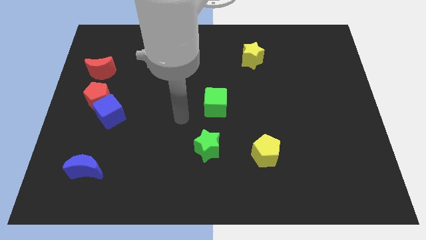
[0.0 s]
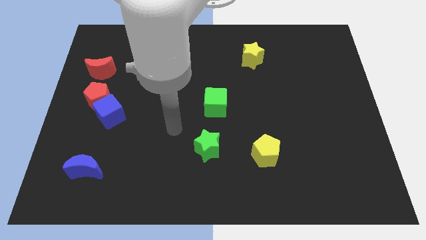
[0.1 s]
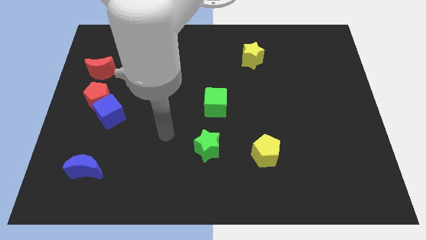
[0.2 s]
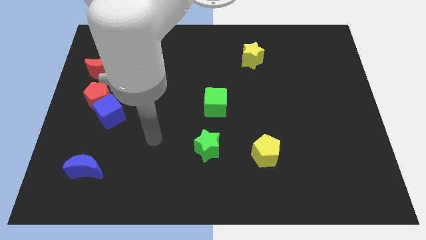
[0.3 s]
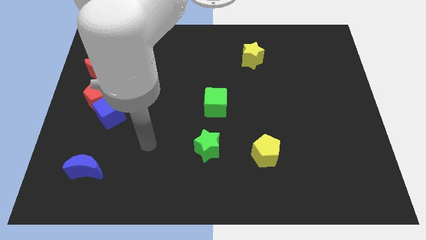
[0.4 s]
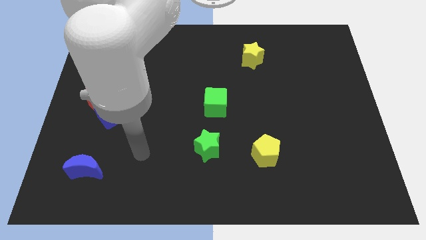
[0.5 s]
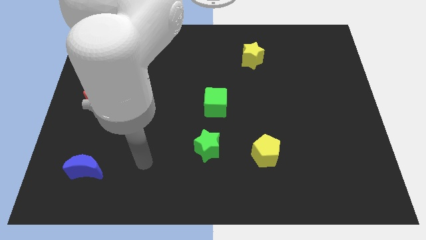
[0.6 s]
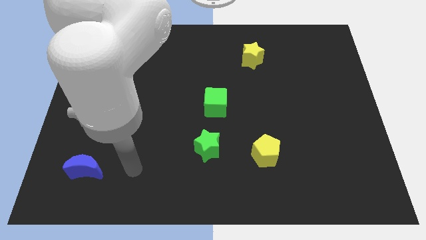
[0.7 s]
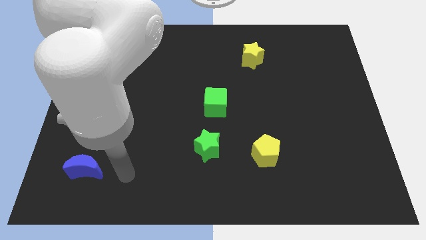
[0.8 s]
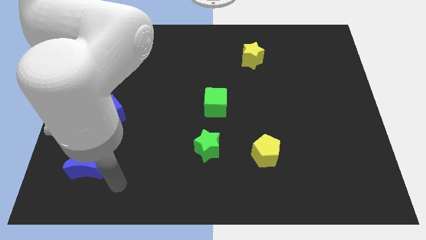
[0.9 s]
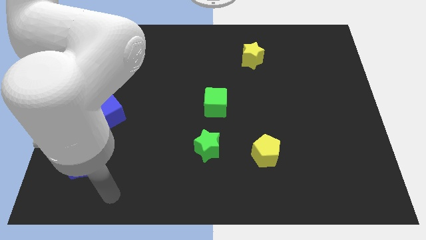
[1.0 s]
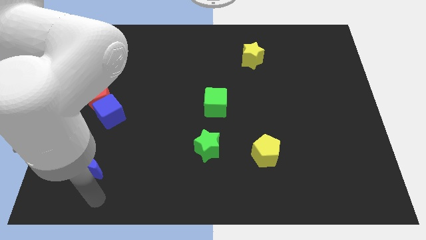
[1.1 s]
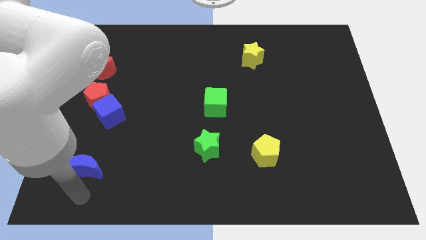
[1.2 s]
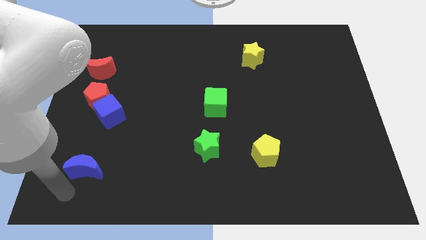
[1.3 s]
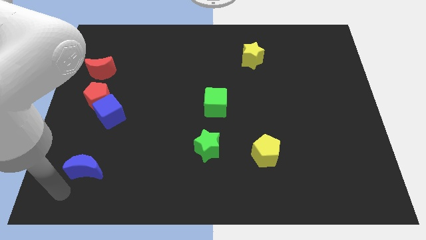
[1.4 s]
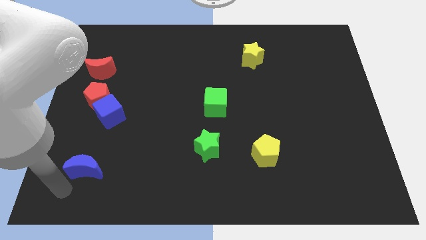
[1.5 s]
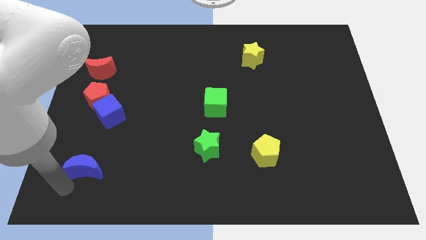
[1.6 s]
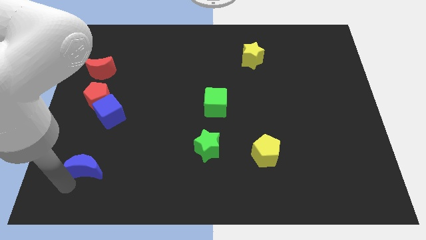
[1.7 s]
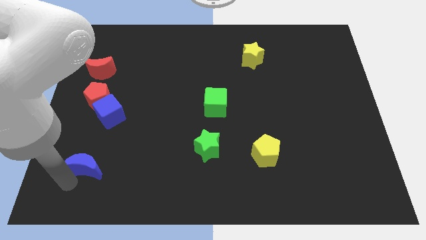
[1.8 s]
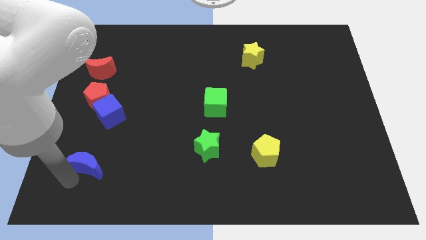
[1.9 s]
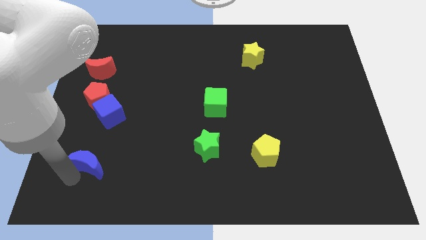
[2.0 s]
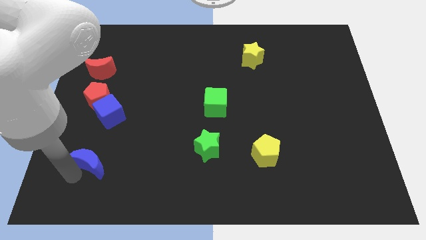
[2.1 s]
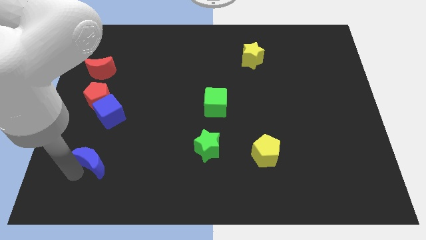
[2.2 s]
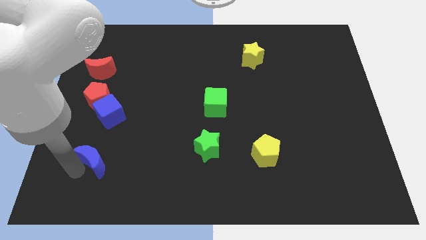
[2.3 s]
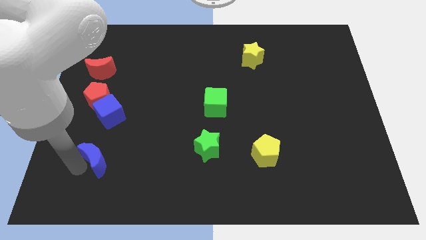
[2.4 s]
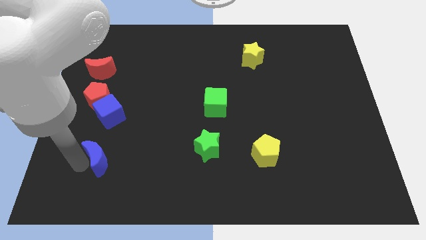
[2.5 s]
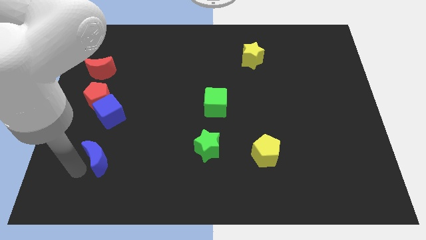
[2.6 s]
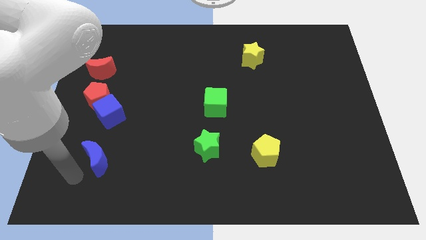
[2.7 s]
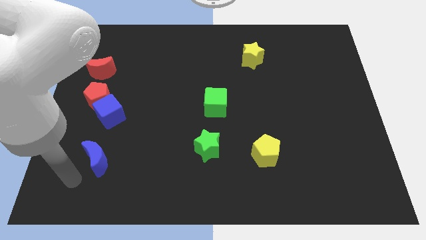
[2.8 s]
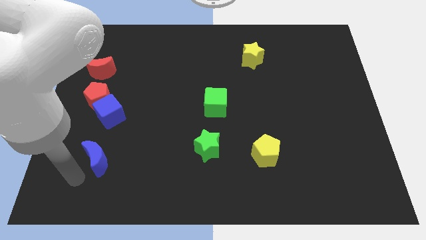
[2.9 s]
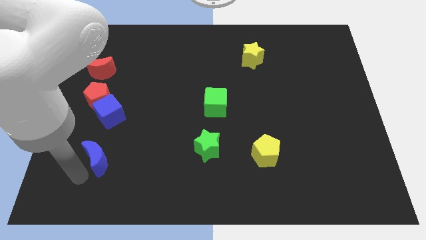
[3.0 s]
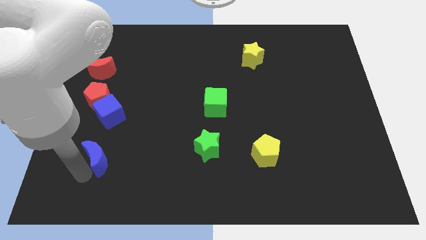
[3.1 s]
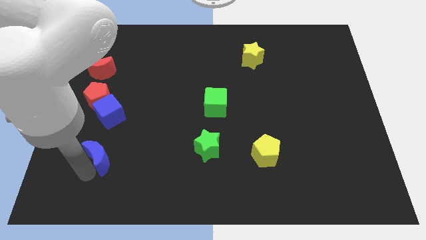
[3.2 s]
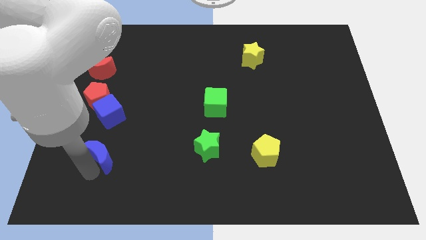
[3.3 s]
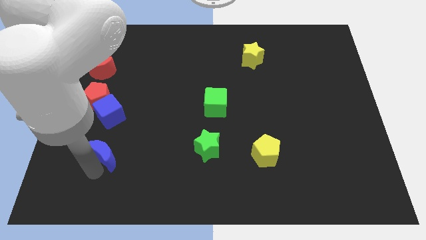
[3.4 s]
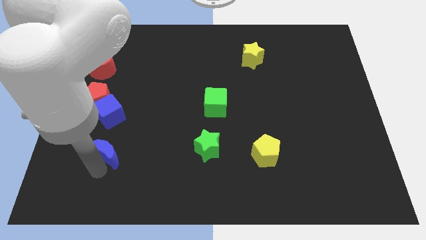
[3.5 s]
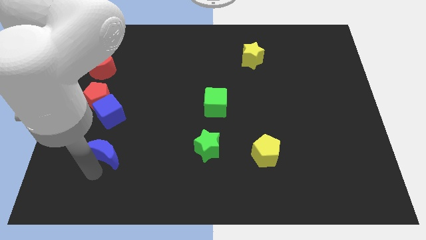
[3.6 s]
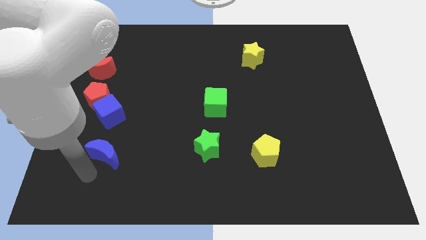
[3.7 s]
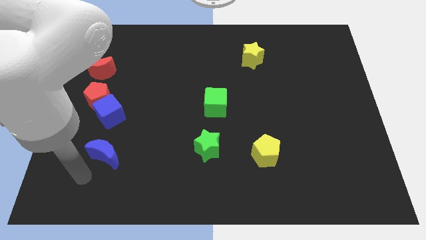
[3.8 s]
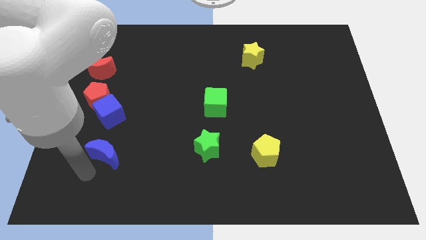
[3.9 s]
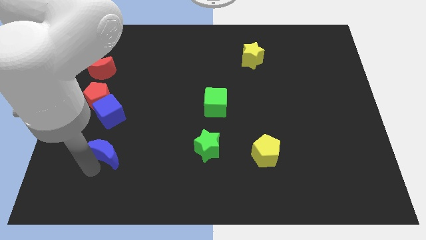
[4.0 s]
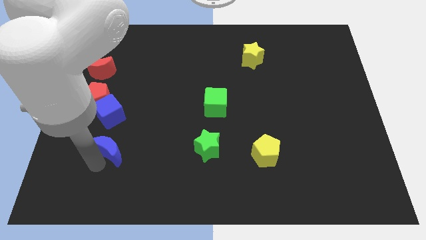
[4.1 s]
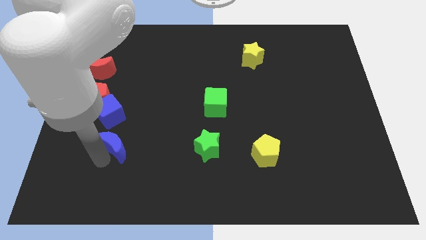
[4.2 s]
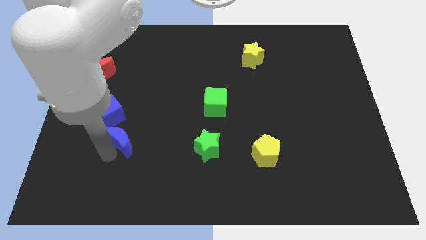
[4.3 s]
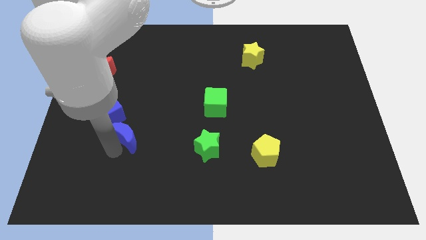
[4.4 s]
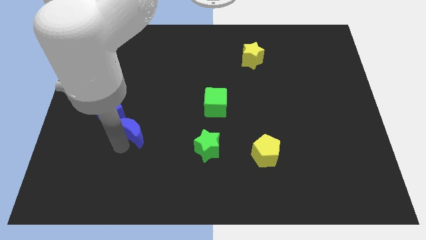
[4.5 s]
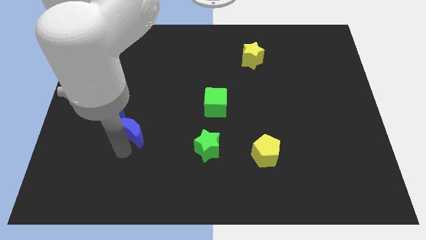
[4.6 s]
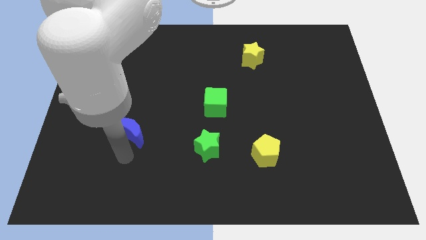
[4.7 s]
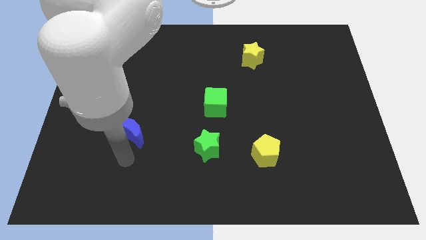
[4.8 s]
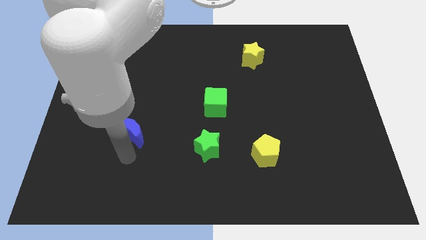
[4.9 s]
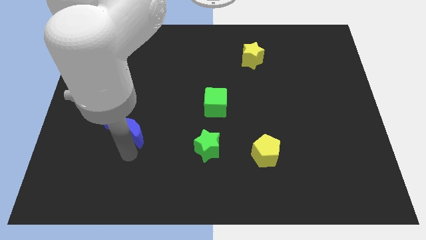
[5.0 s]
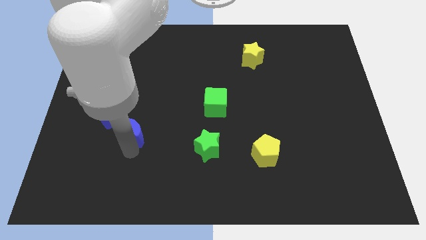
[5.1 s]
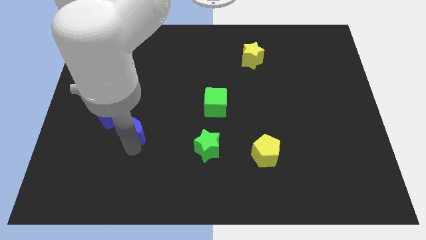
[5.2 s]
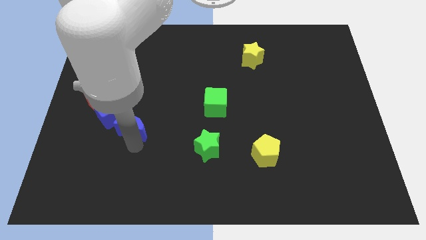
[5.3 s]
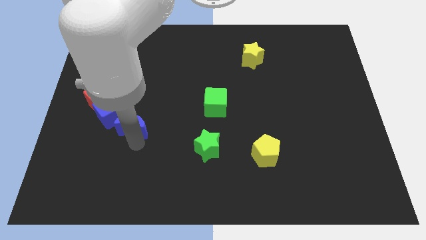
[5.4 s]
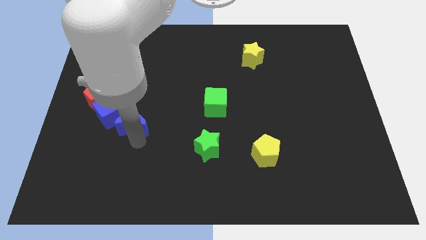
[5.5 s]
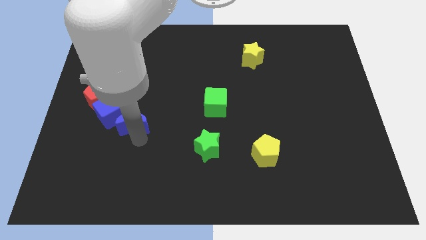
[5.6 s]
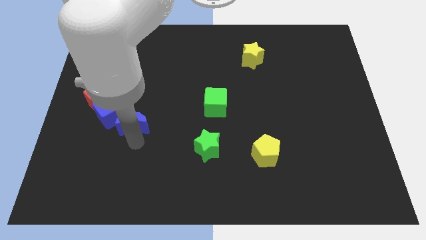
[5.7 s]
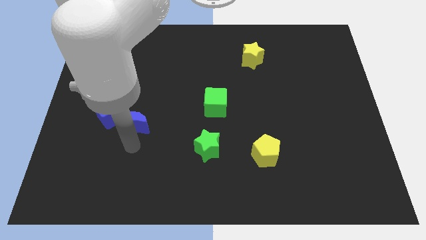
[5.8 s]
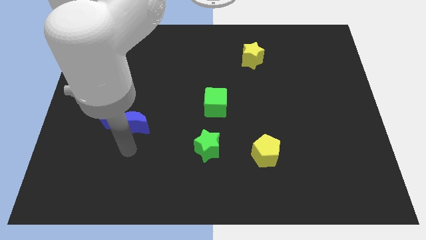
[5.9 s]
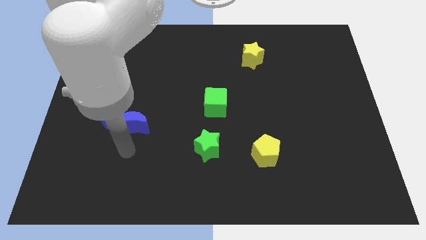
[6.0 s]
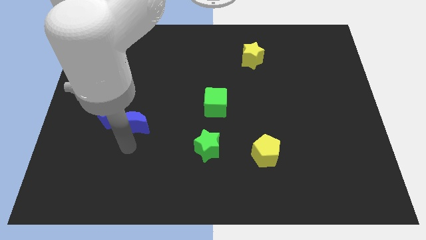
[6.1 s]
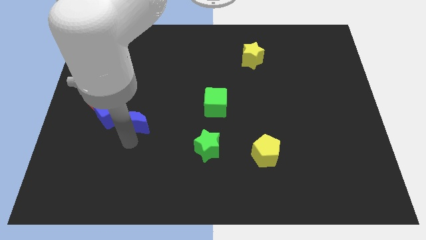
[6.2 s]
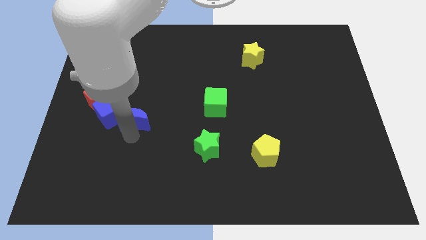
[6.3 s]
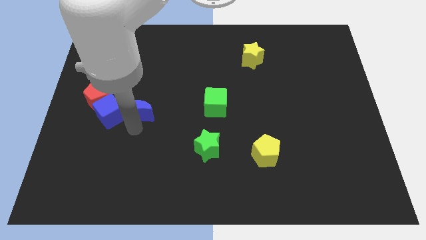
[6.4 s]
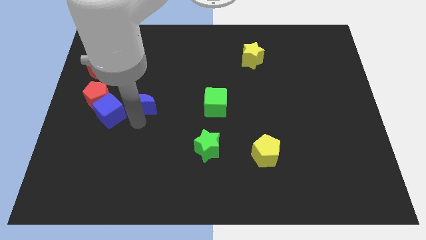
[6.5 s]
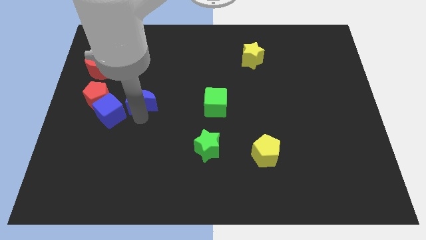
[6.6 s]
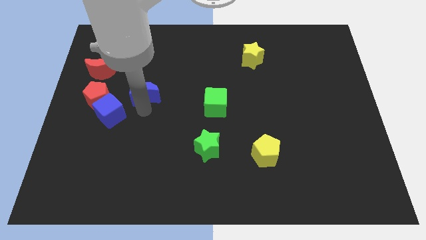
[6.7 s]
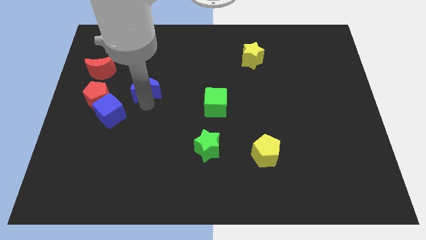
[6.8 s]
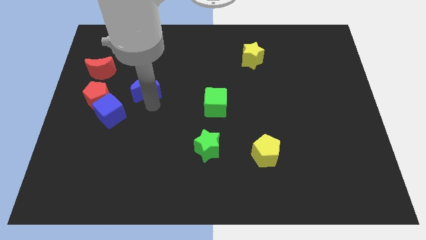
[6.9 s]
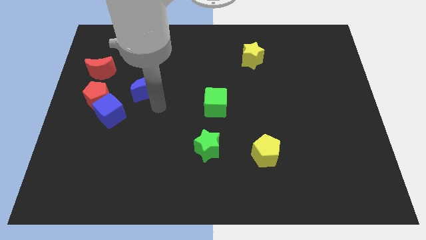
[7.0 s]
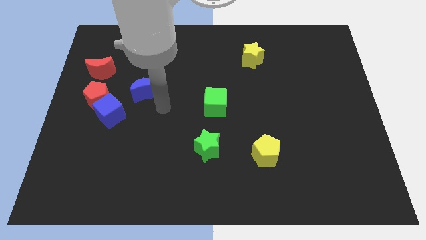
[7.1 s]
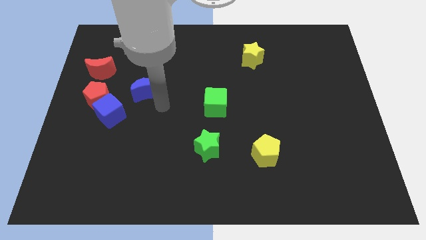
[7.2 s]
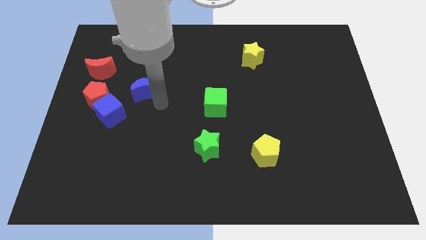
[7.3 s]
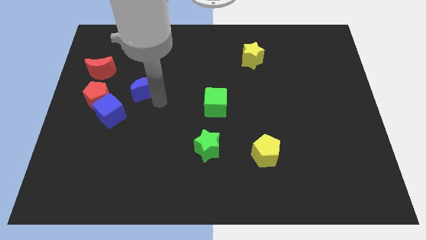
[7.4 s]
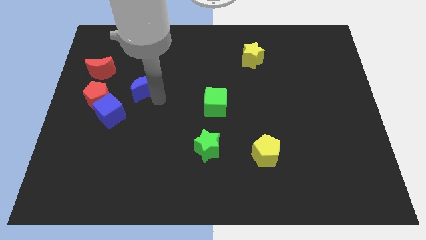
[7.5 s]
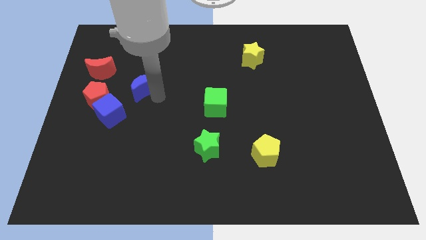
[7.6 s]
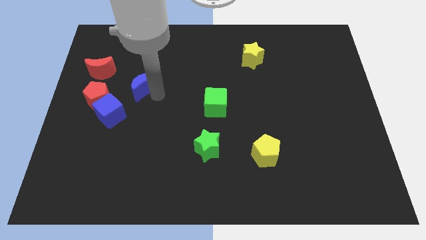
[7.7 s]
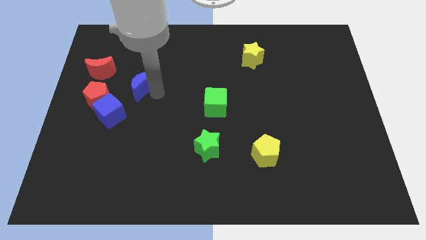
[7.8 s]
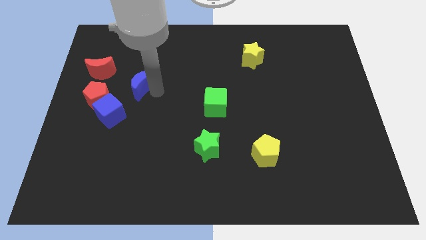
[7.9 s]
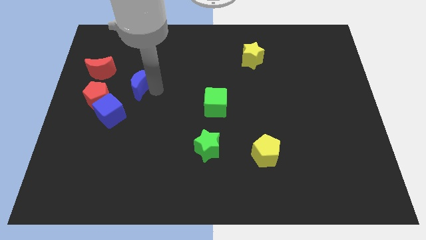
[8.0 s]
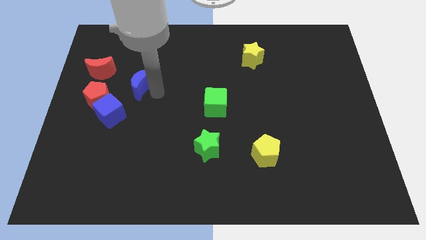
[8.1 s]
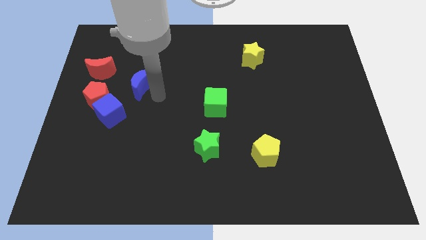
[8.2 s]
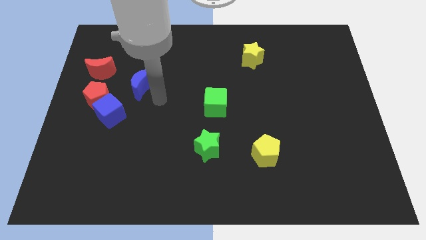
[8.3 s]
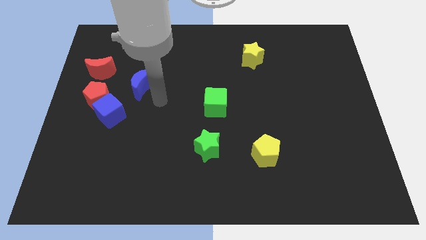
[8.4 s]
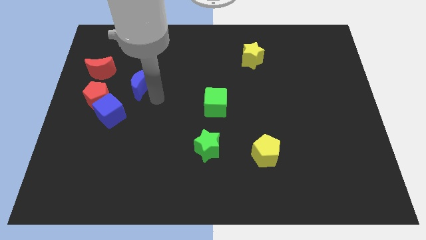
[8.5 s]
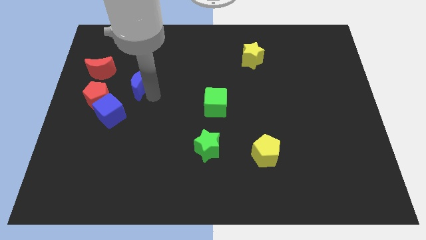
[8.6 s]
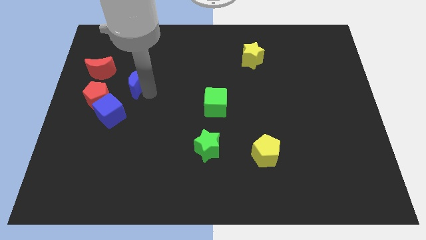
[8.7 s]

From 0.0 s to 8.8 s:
move the blue moon up
